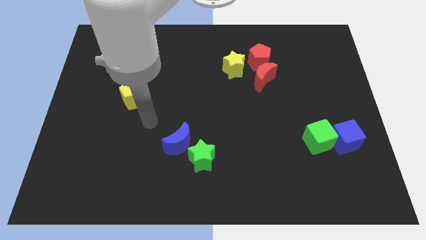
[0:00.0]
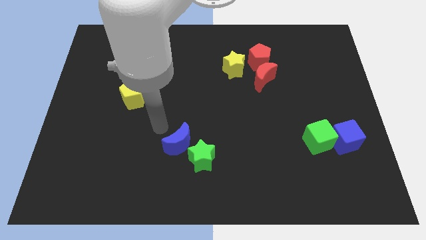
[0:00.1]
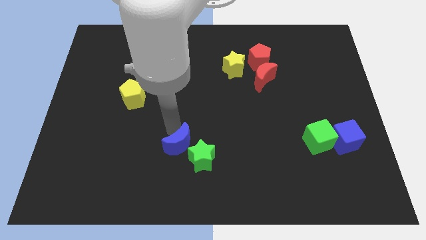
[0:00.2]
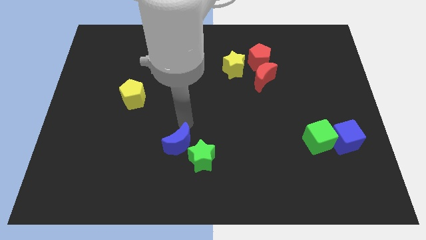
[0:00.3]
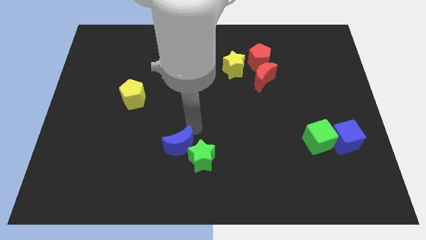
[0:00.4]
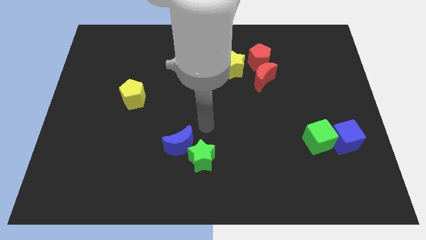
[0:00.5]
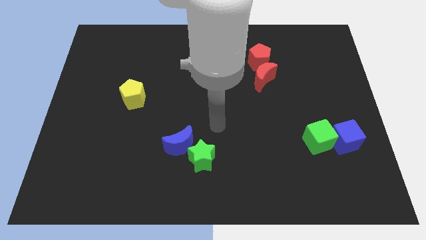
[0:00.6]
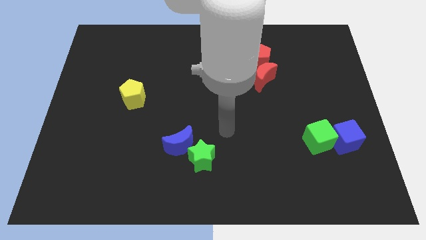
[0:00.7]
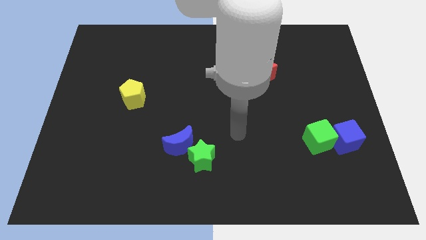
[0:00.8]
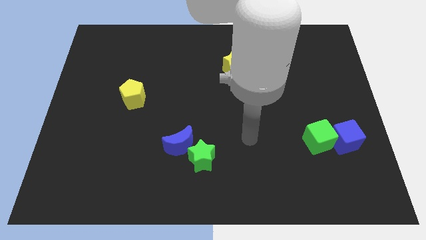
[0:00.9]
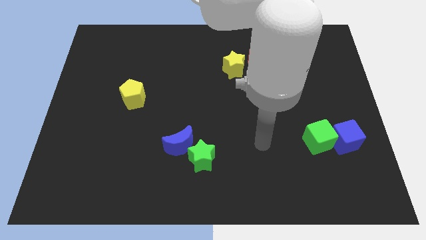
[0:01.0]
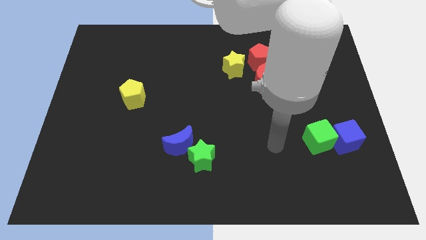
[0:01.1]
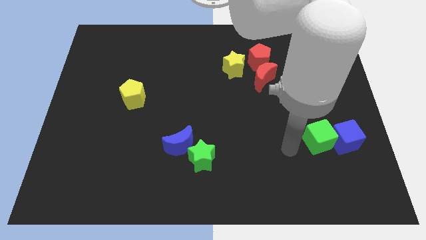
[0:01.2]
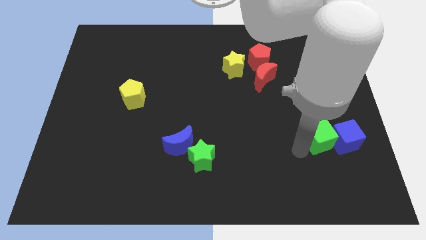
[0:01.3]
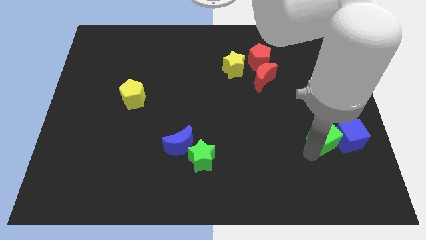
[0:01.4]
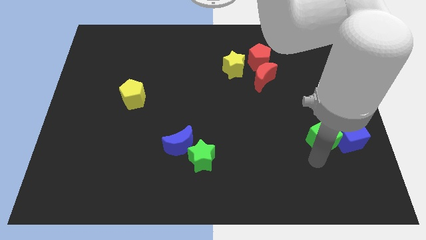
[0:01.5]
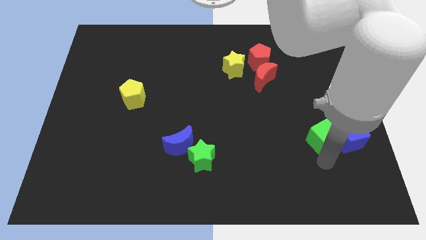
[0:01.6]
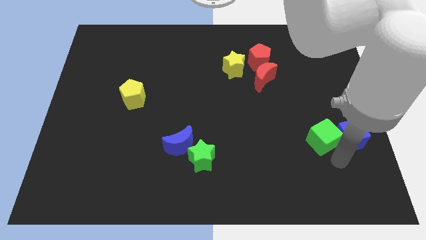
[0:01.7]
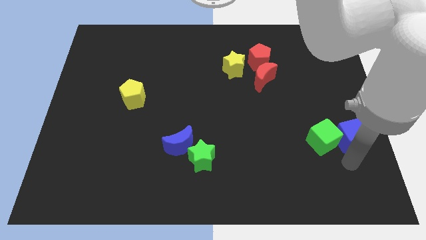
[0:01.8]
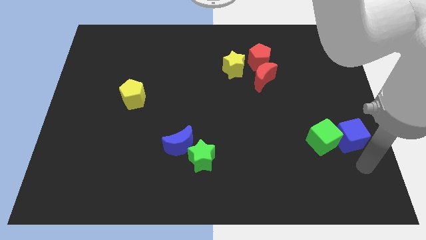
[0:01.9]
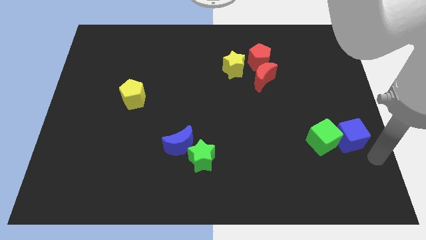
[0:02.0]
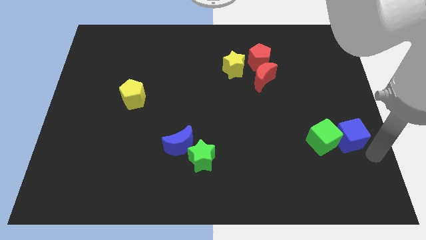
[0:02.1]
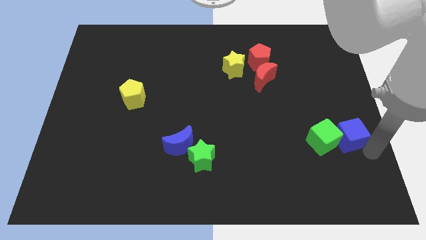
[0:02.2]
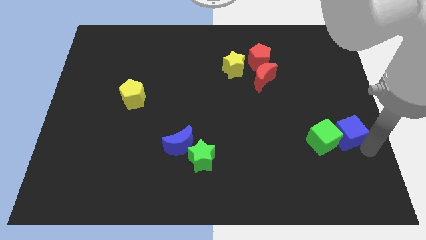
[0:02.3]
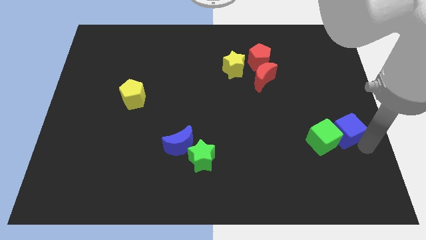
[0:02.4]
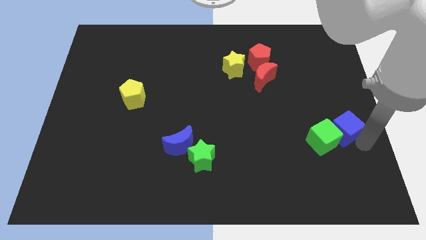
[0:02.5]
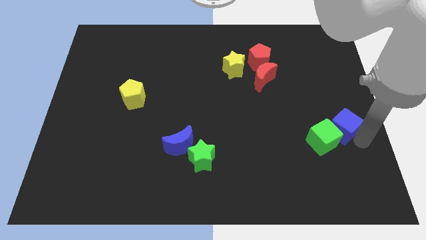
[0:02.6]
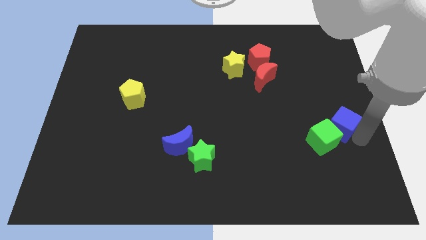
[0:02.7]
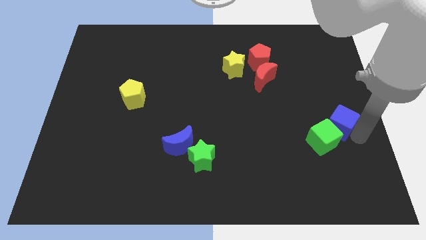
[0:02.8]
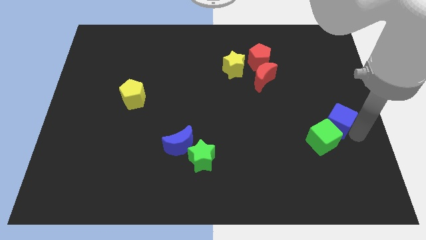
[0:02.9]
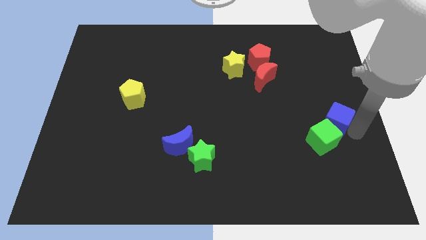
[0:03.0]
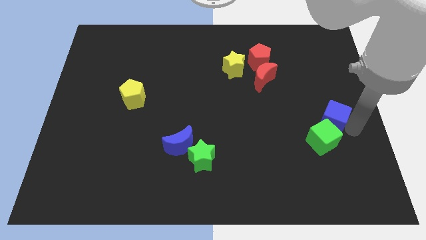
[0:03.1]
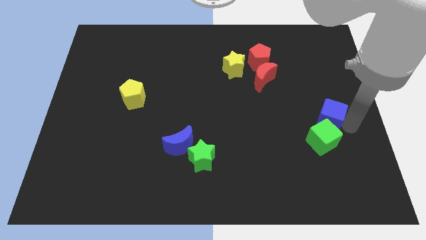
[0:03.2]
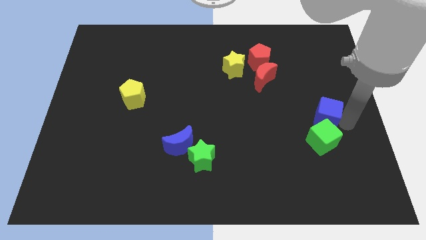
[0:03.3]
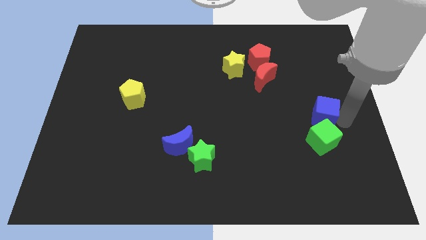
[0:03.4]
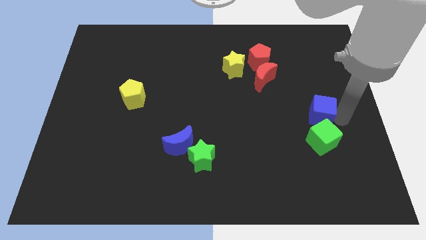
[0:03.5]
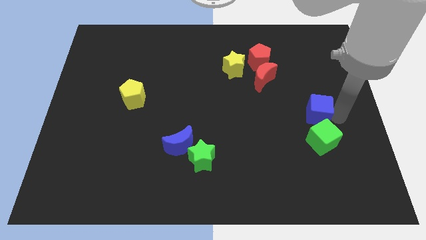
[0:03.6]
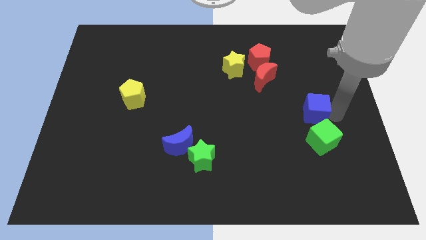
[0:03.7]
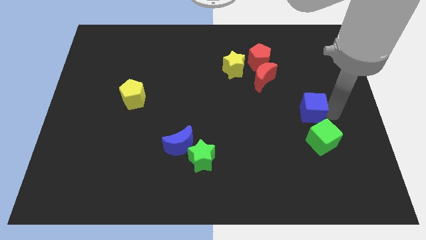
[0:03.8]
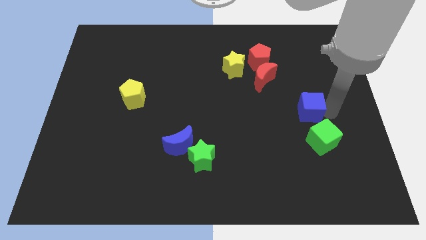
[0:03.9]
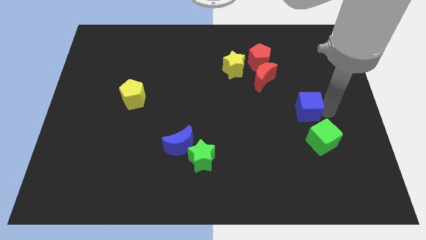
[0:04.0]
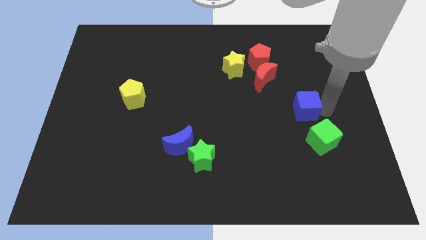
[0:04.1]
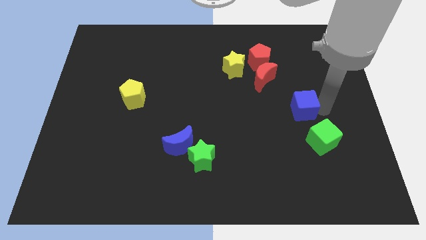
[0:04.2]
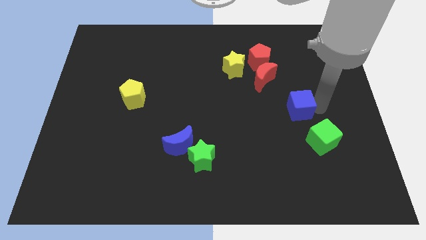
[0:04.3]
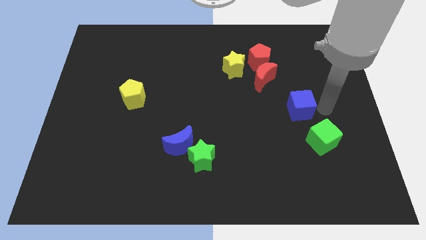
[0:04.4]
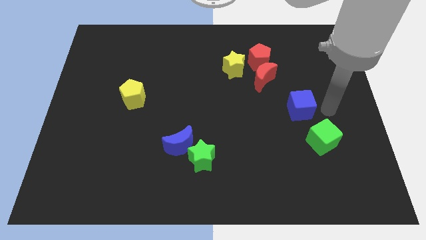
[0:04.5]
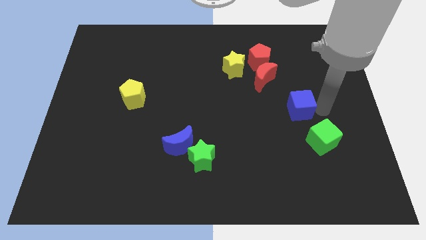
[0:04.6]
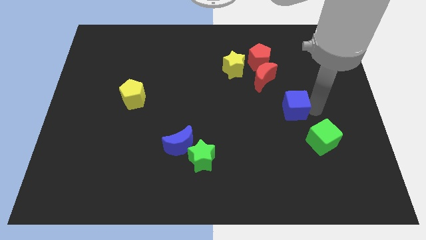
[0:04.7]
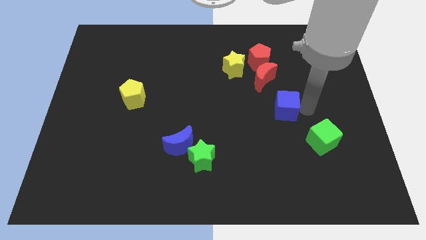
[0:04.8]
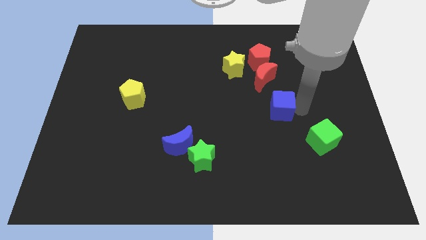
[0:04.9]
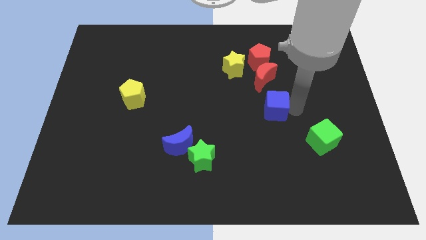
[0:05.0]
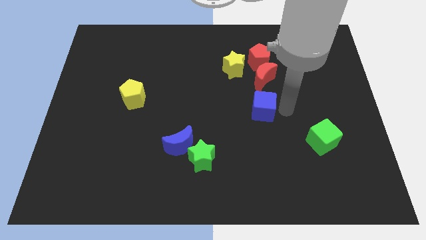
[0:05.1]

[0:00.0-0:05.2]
slide the blue cube to the middle

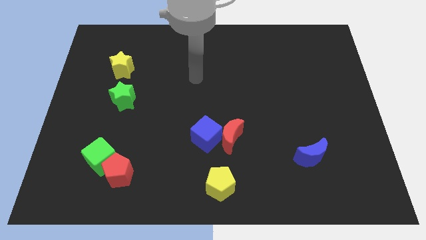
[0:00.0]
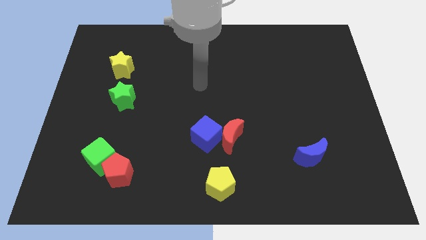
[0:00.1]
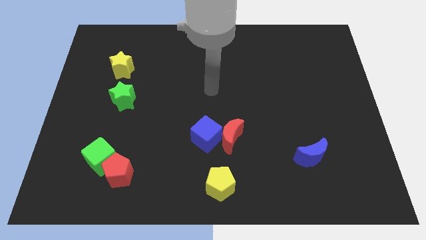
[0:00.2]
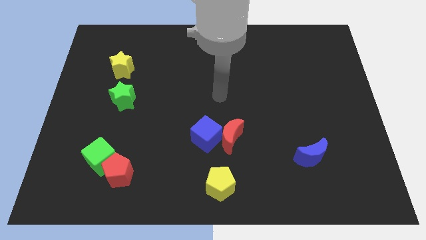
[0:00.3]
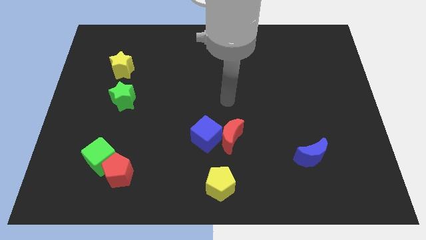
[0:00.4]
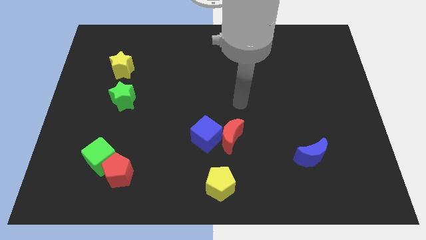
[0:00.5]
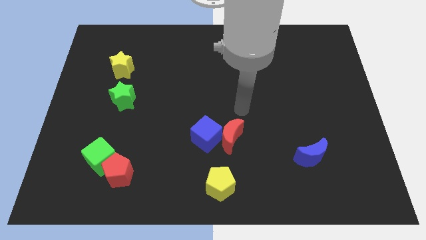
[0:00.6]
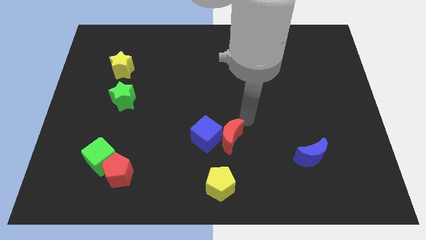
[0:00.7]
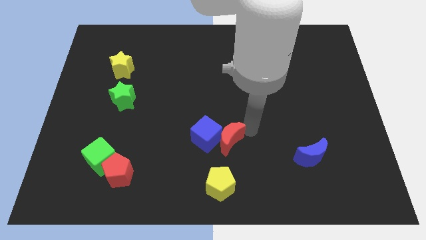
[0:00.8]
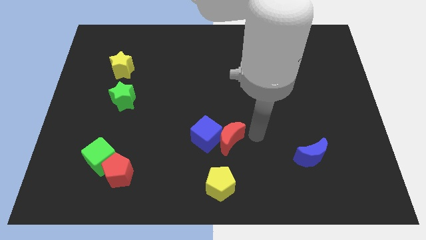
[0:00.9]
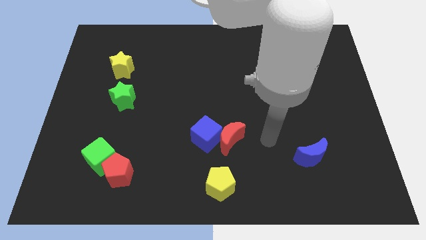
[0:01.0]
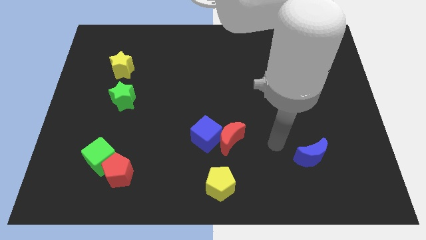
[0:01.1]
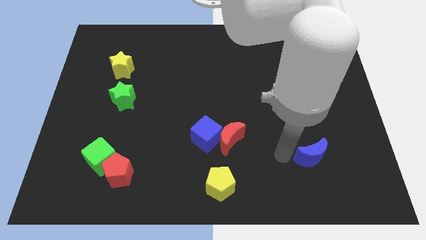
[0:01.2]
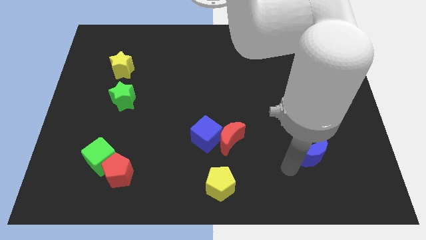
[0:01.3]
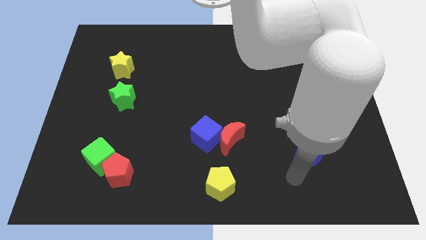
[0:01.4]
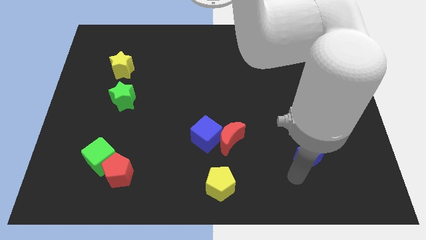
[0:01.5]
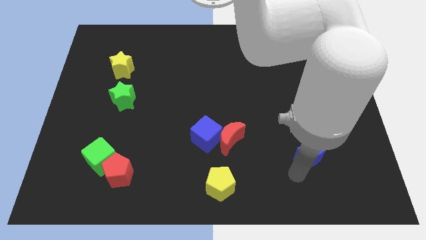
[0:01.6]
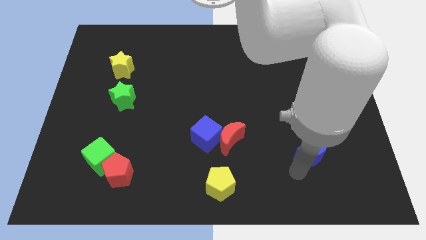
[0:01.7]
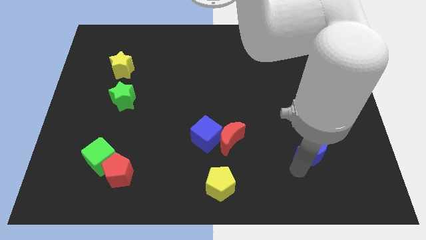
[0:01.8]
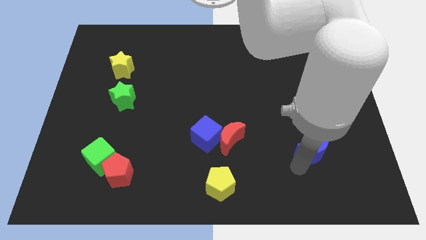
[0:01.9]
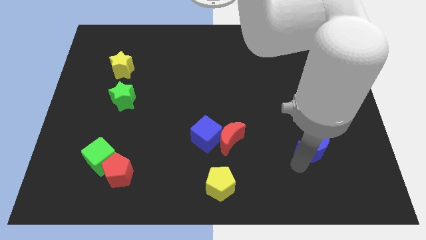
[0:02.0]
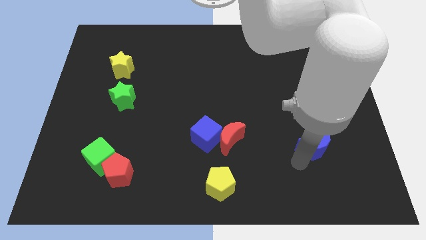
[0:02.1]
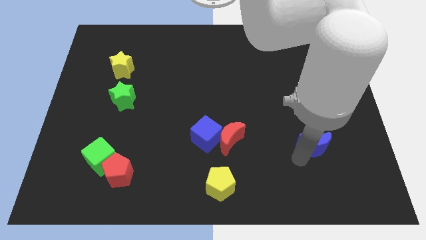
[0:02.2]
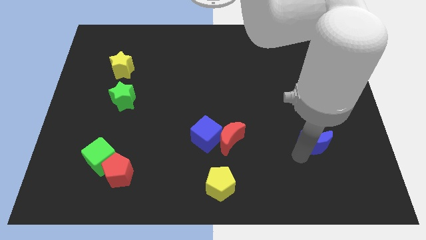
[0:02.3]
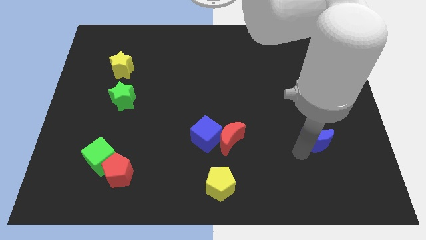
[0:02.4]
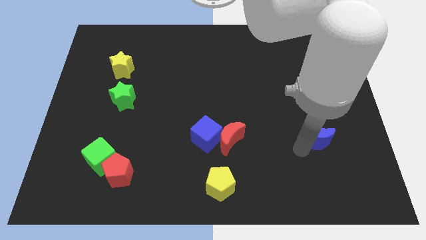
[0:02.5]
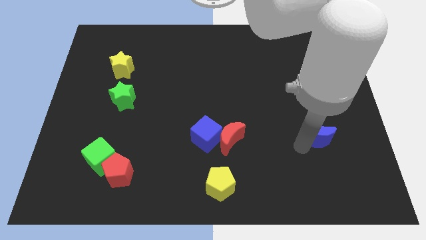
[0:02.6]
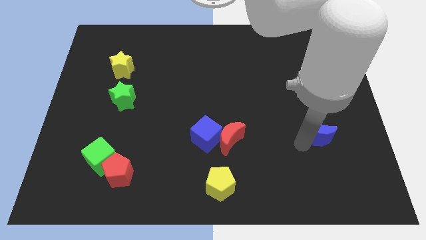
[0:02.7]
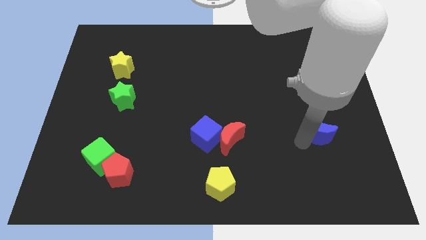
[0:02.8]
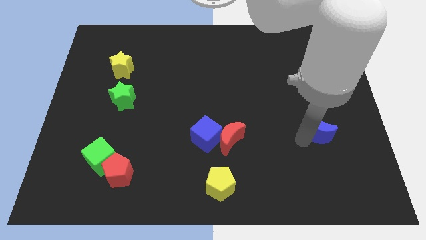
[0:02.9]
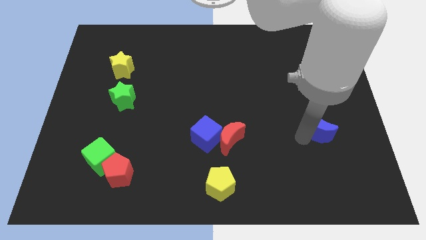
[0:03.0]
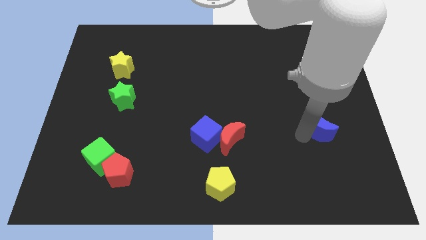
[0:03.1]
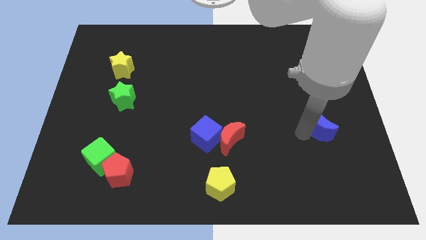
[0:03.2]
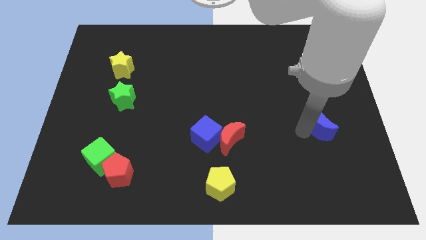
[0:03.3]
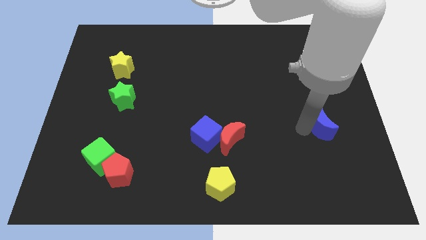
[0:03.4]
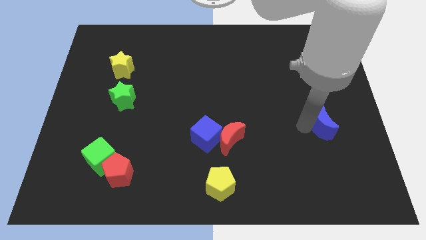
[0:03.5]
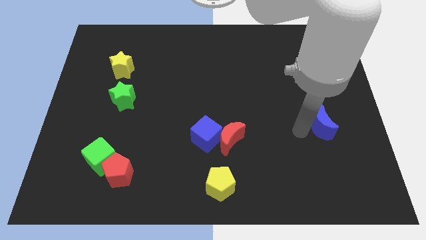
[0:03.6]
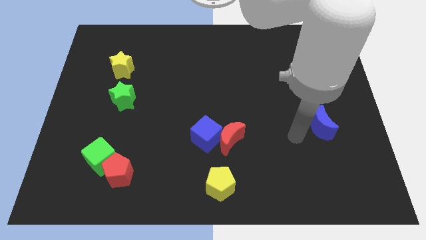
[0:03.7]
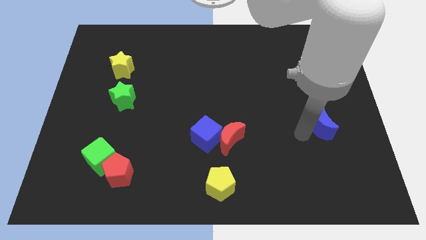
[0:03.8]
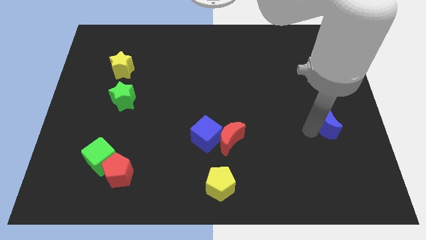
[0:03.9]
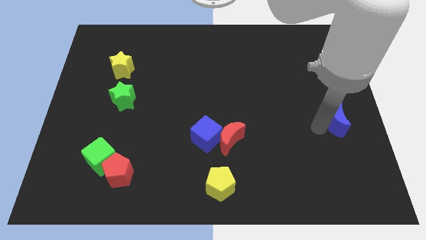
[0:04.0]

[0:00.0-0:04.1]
move the blue moon to the right side
